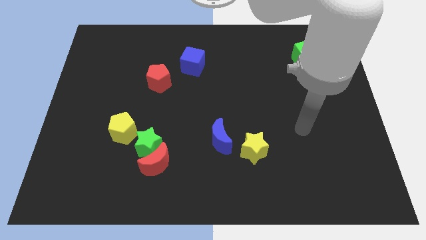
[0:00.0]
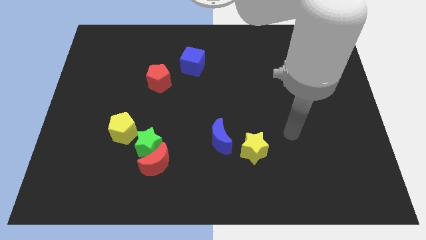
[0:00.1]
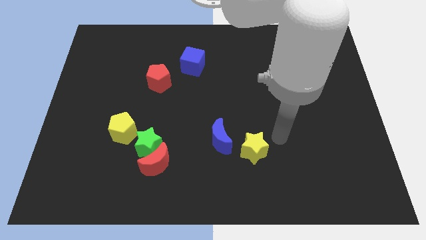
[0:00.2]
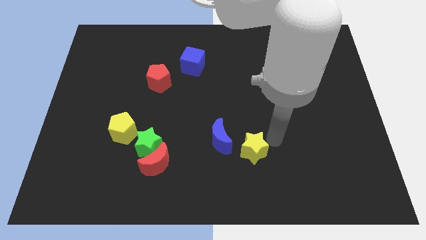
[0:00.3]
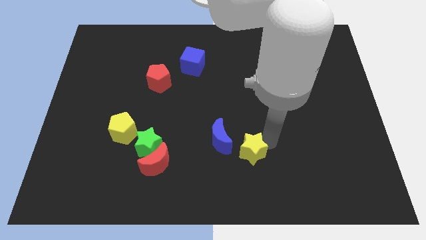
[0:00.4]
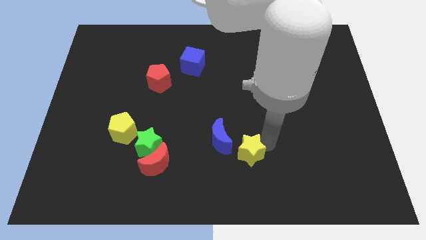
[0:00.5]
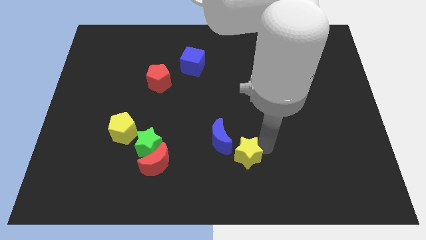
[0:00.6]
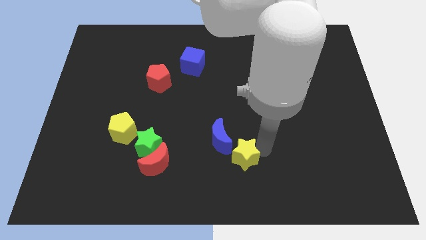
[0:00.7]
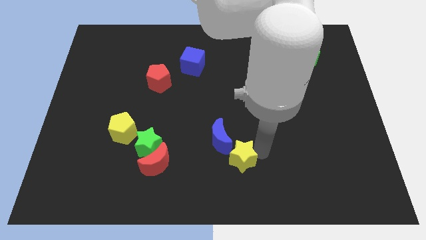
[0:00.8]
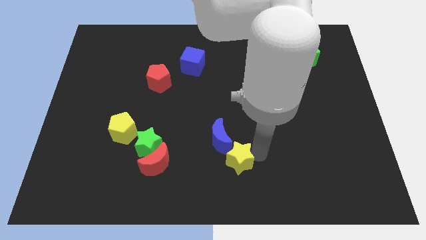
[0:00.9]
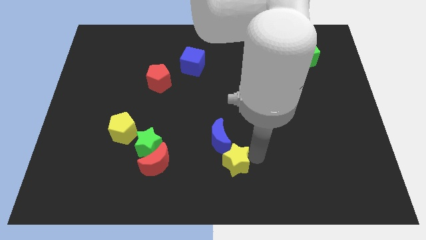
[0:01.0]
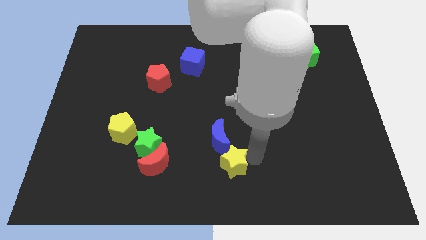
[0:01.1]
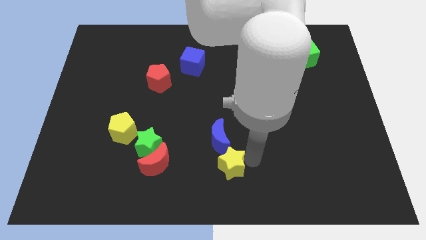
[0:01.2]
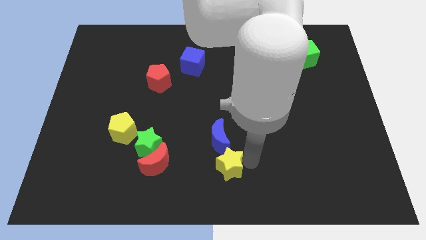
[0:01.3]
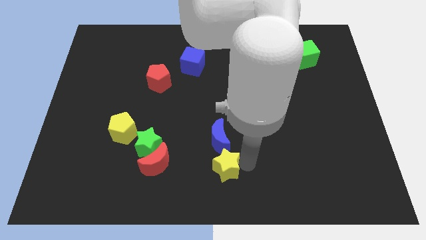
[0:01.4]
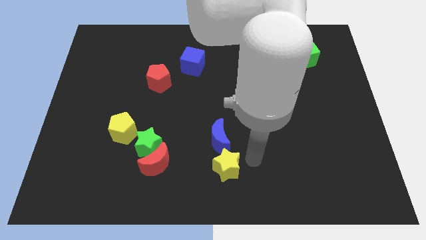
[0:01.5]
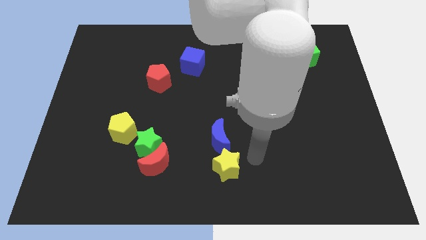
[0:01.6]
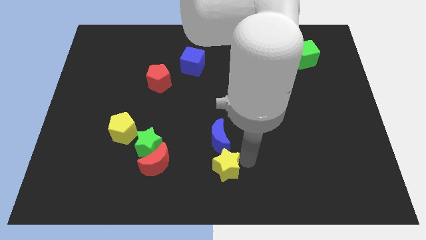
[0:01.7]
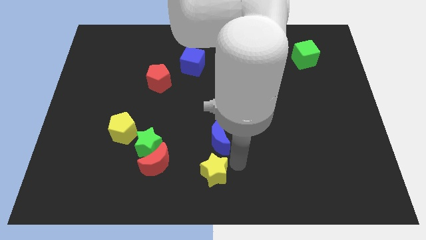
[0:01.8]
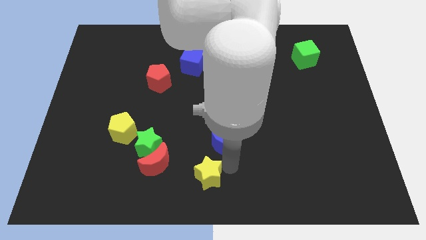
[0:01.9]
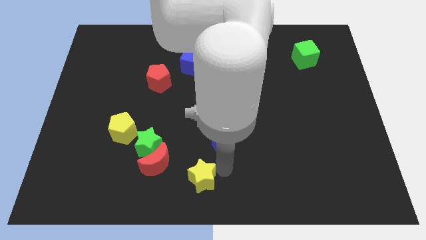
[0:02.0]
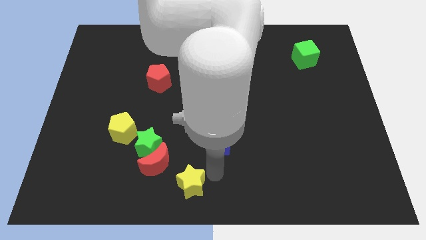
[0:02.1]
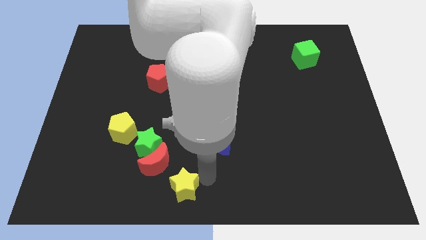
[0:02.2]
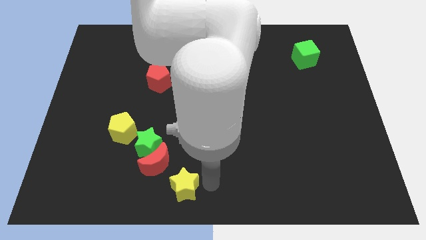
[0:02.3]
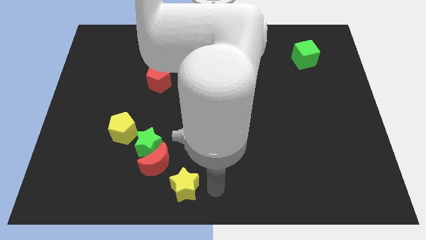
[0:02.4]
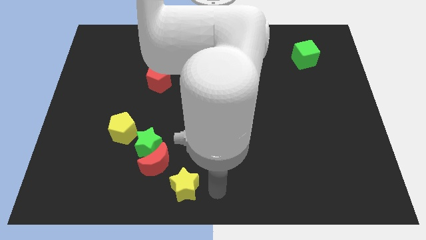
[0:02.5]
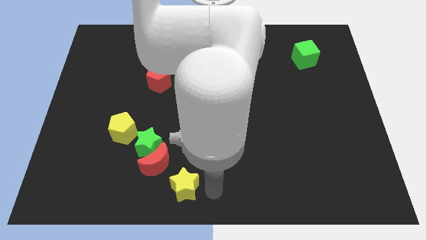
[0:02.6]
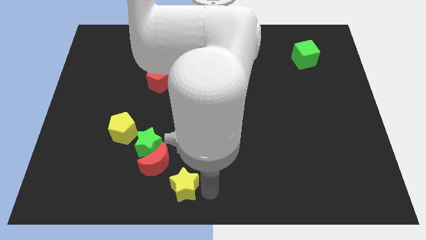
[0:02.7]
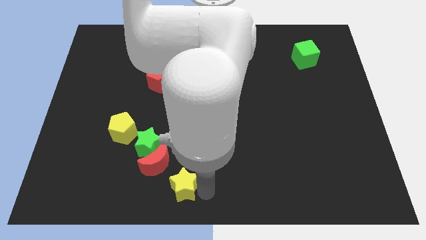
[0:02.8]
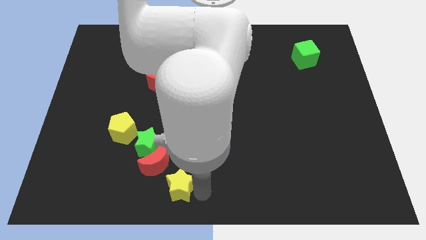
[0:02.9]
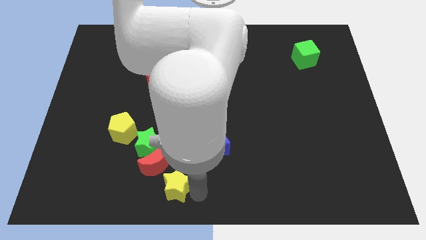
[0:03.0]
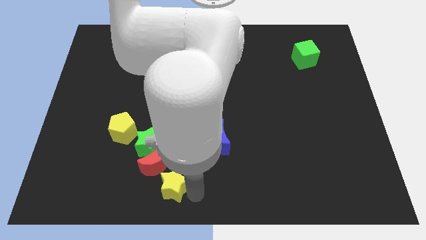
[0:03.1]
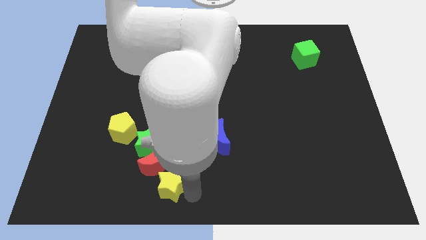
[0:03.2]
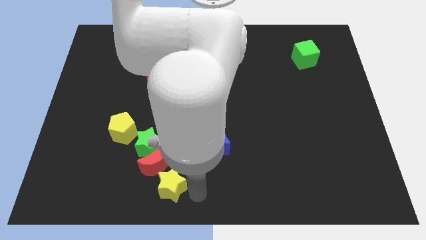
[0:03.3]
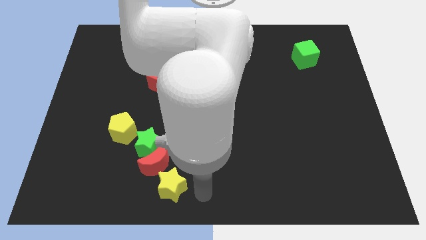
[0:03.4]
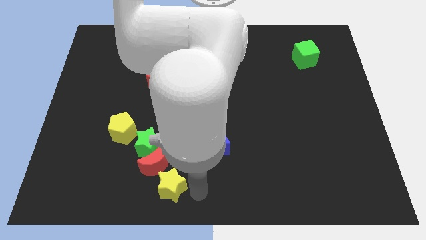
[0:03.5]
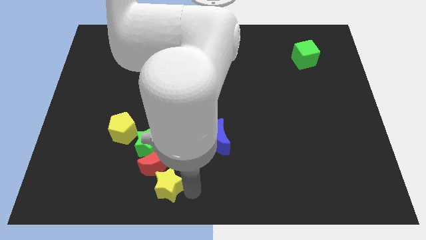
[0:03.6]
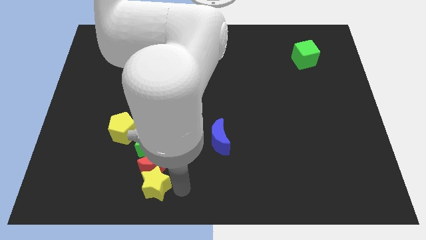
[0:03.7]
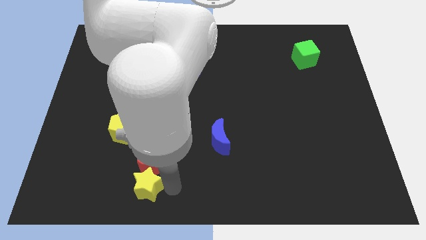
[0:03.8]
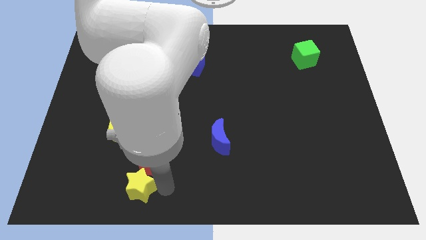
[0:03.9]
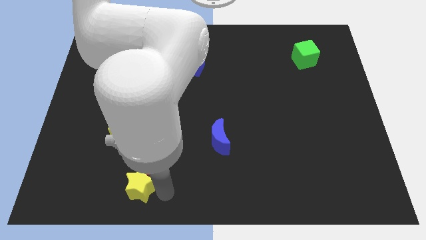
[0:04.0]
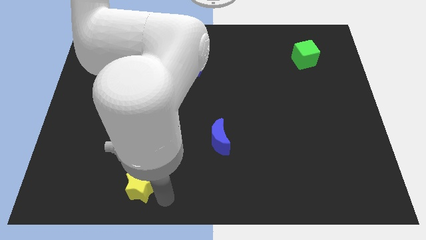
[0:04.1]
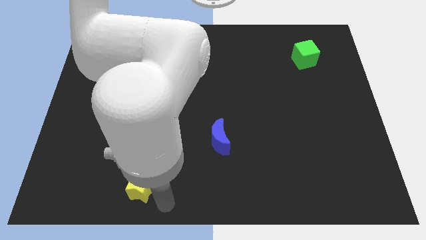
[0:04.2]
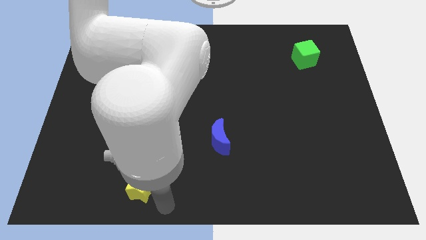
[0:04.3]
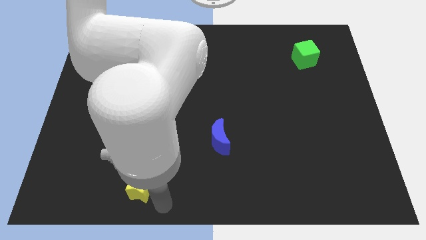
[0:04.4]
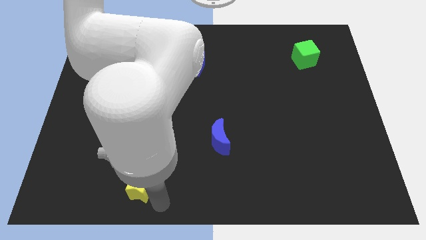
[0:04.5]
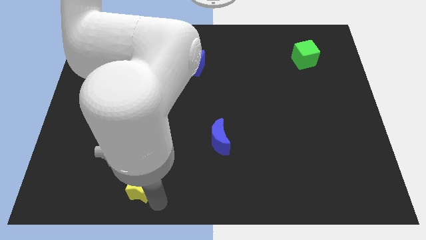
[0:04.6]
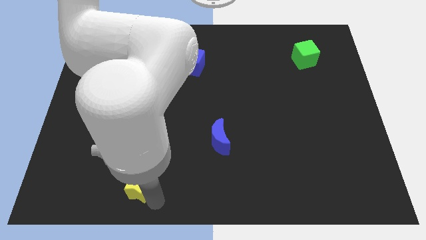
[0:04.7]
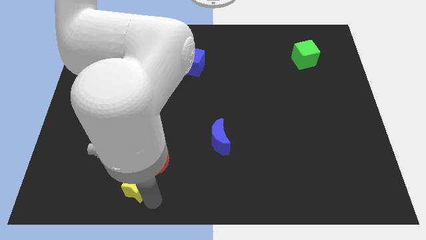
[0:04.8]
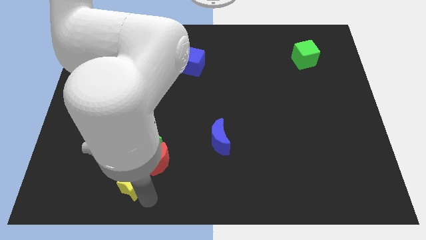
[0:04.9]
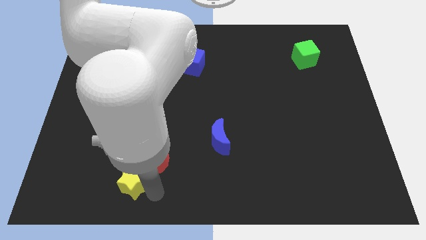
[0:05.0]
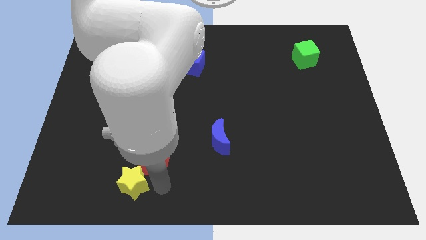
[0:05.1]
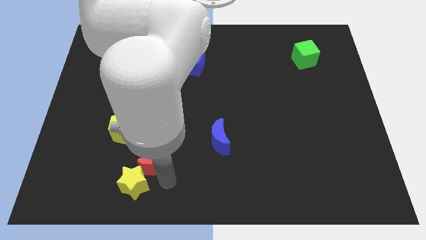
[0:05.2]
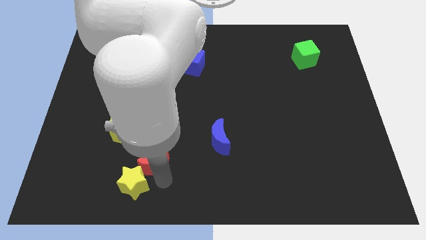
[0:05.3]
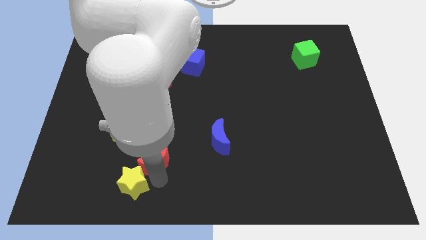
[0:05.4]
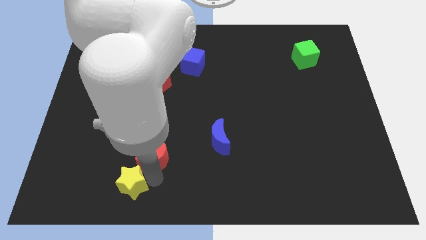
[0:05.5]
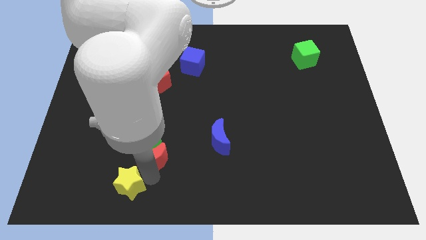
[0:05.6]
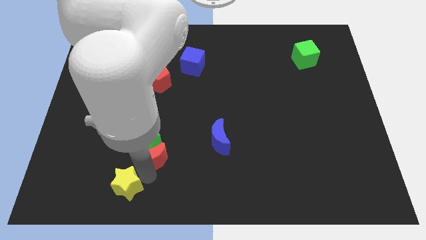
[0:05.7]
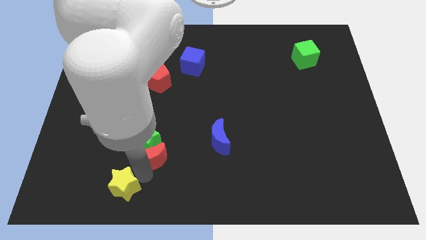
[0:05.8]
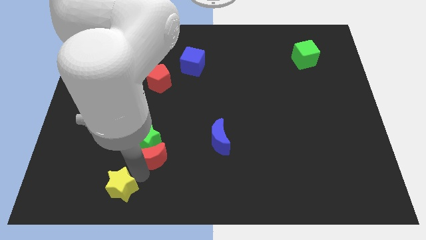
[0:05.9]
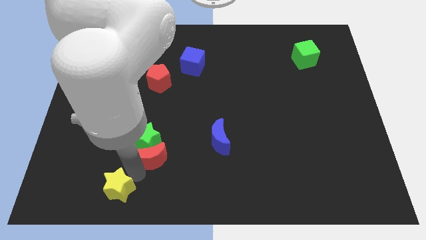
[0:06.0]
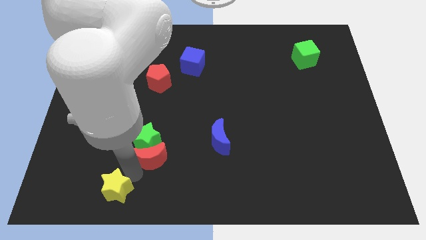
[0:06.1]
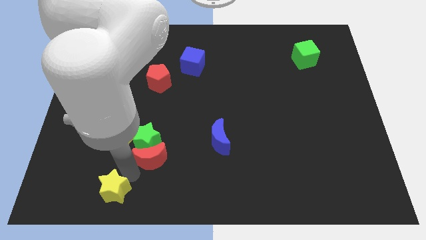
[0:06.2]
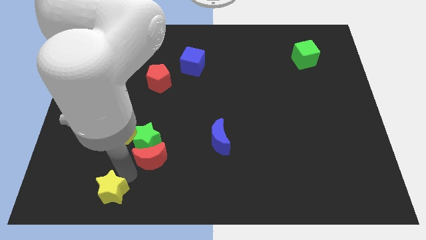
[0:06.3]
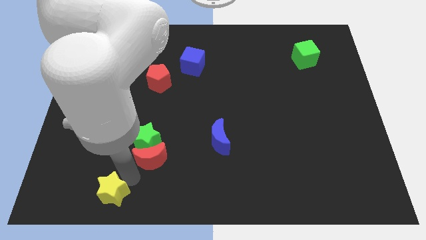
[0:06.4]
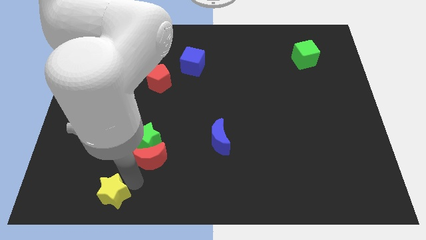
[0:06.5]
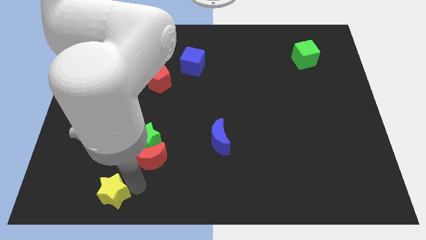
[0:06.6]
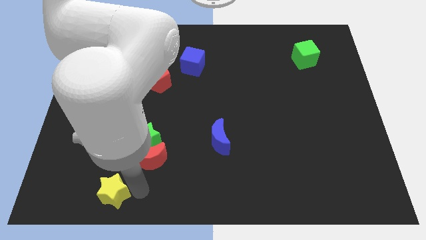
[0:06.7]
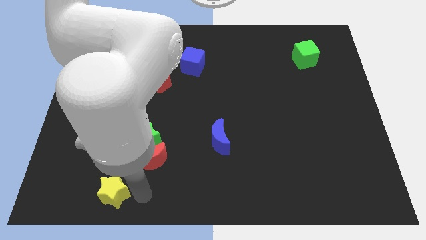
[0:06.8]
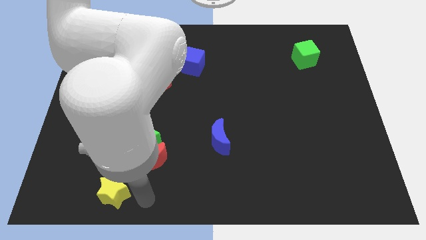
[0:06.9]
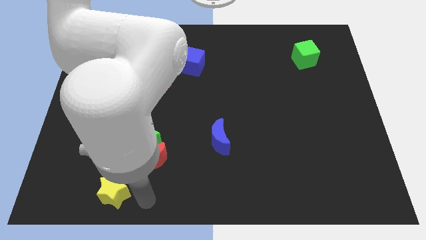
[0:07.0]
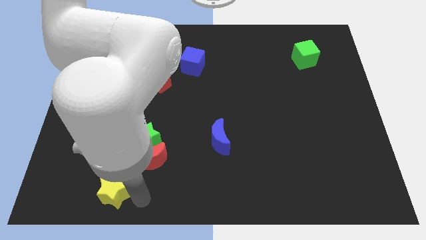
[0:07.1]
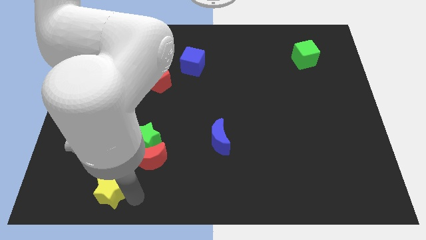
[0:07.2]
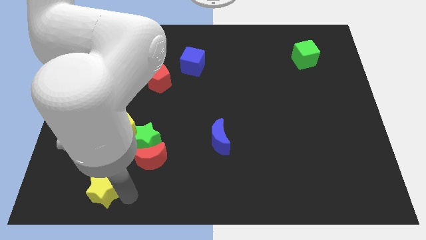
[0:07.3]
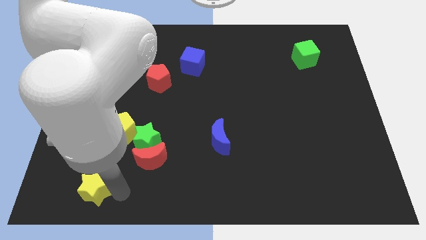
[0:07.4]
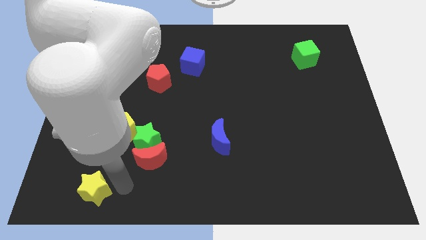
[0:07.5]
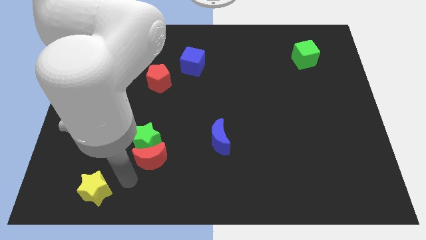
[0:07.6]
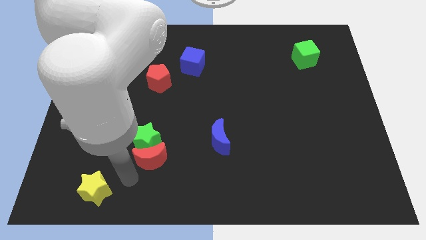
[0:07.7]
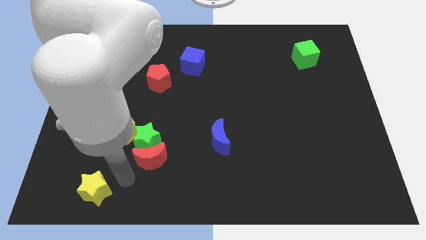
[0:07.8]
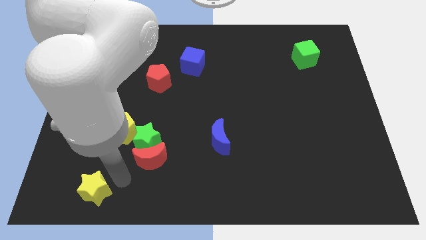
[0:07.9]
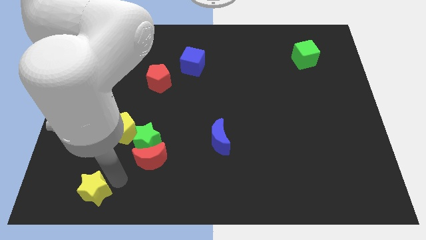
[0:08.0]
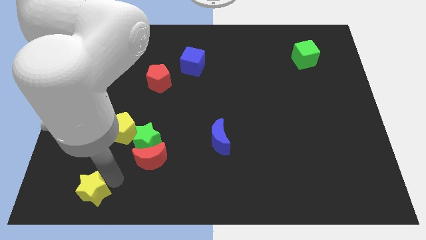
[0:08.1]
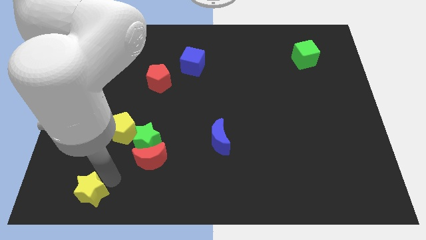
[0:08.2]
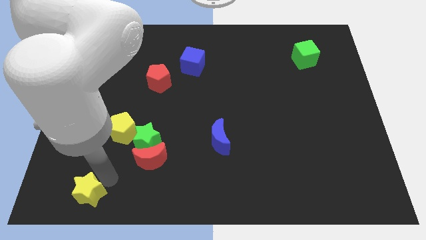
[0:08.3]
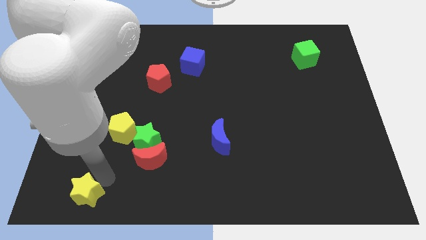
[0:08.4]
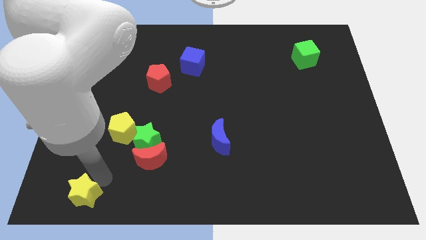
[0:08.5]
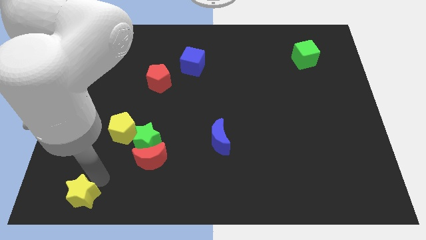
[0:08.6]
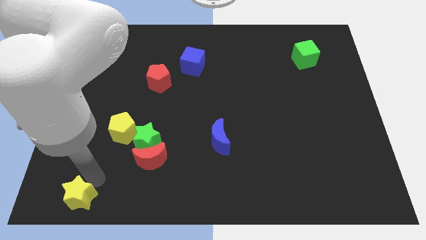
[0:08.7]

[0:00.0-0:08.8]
put the yellow star to the bottom left of the board
